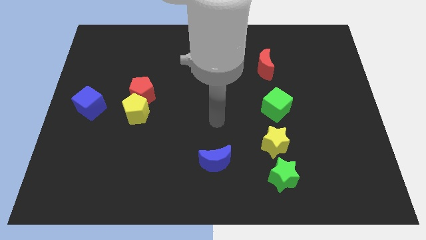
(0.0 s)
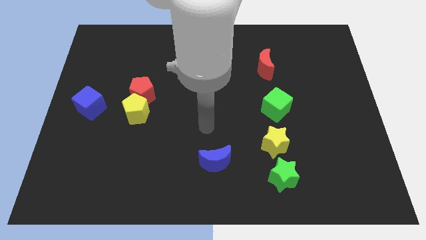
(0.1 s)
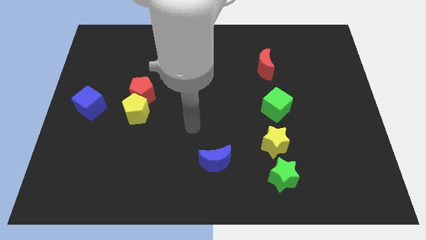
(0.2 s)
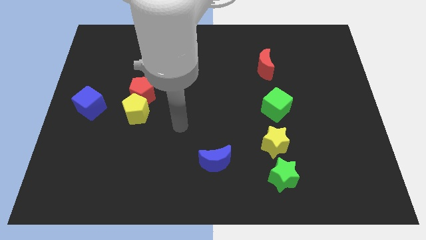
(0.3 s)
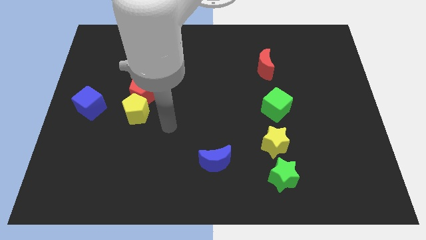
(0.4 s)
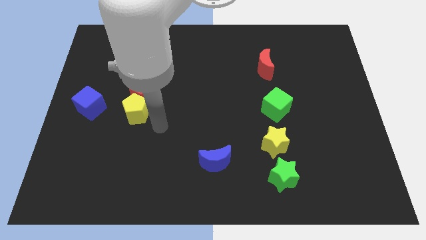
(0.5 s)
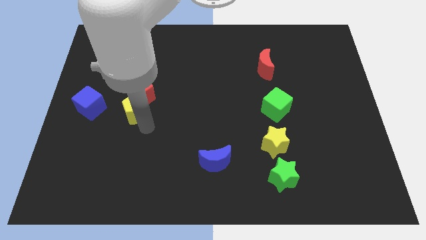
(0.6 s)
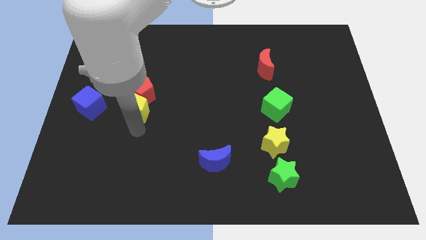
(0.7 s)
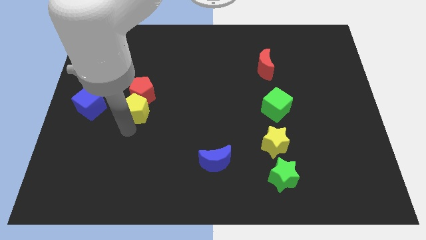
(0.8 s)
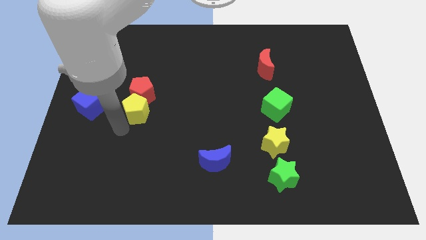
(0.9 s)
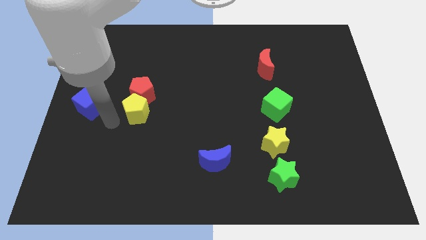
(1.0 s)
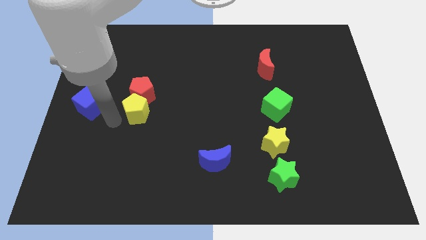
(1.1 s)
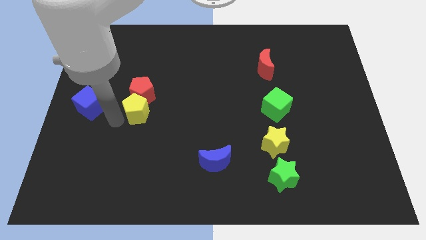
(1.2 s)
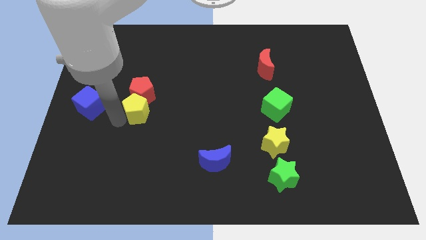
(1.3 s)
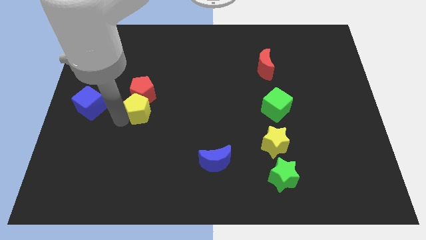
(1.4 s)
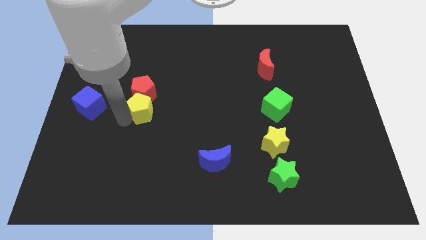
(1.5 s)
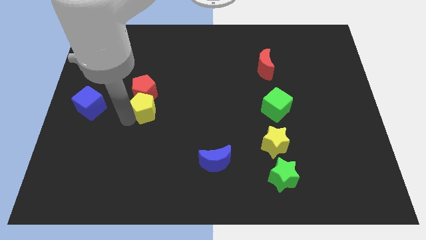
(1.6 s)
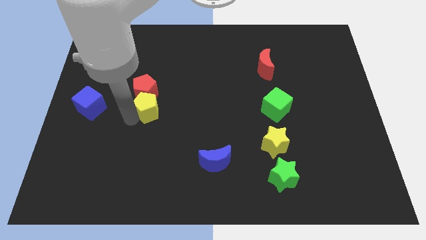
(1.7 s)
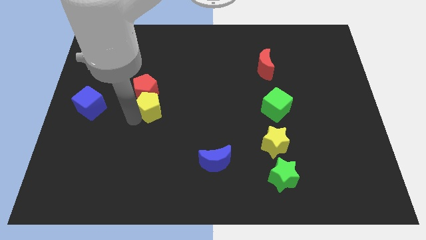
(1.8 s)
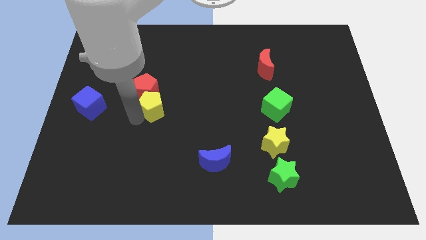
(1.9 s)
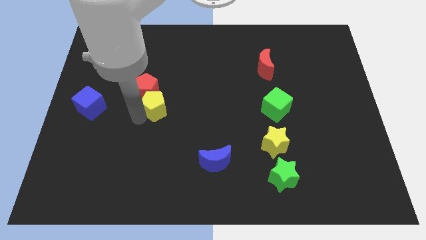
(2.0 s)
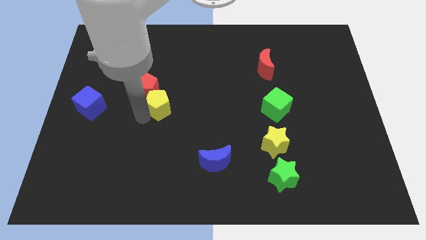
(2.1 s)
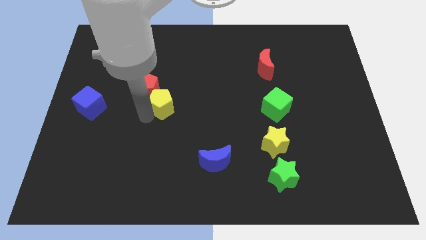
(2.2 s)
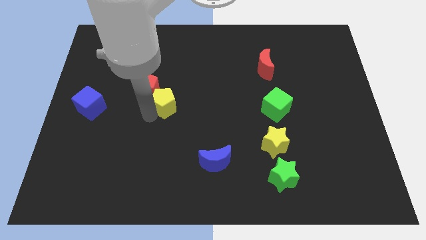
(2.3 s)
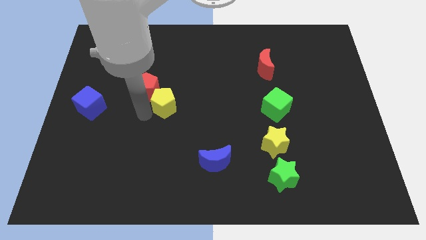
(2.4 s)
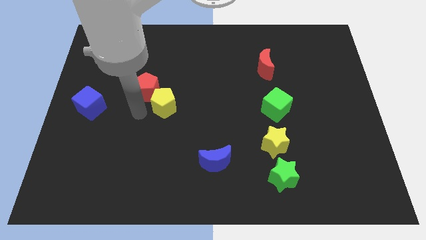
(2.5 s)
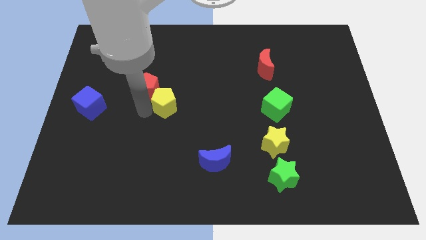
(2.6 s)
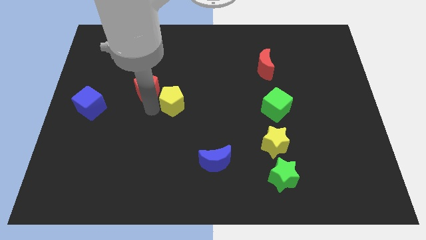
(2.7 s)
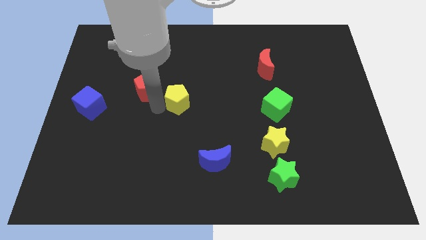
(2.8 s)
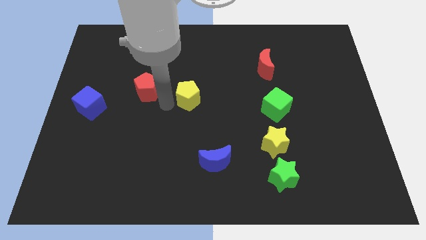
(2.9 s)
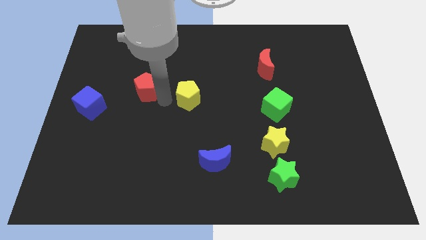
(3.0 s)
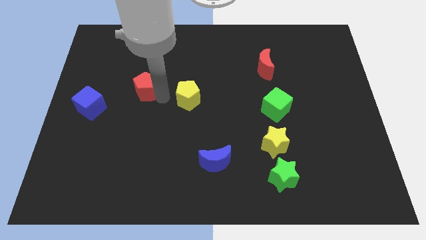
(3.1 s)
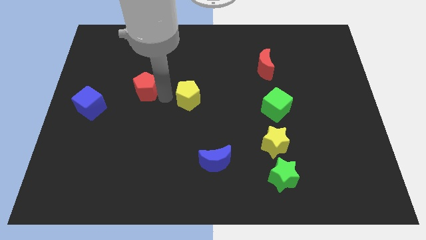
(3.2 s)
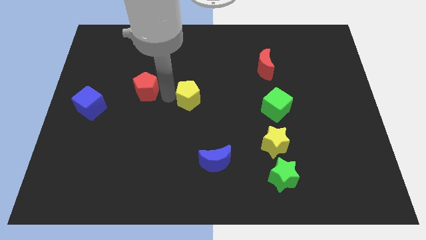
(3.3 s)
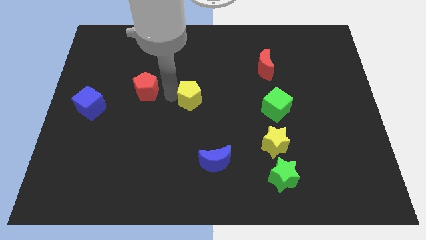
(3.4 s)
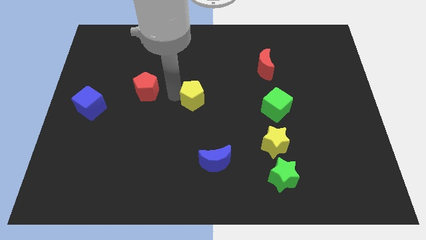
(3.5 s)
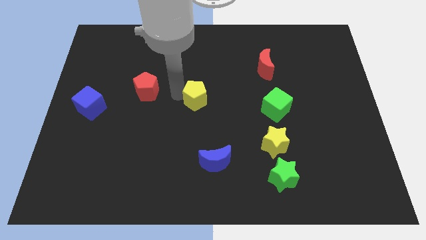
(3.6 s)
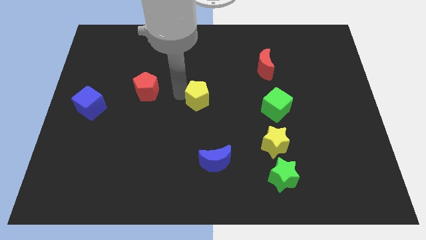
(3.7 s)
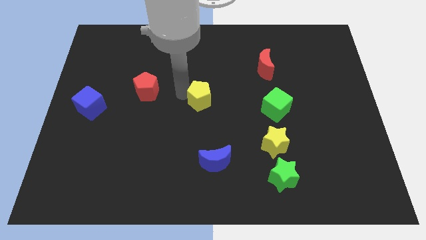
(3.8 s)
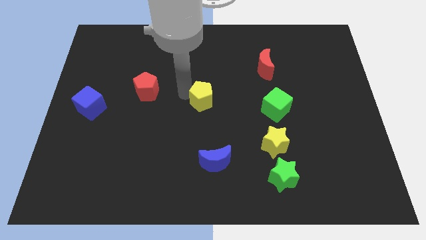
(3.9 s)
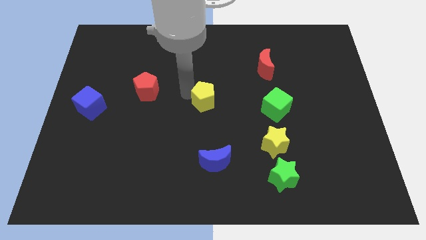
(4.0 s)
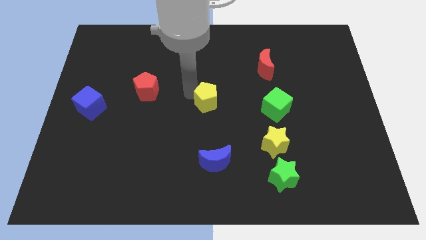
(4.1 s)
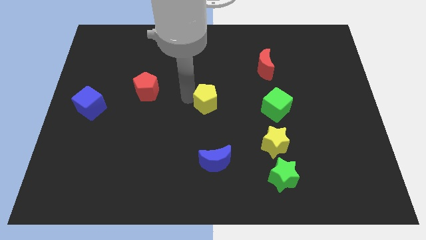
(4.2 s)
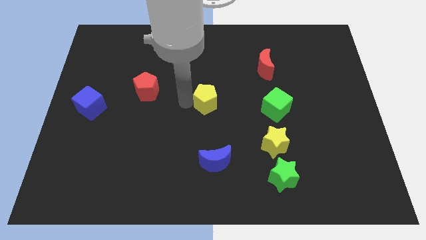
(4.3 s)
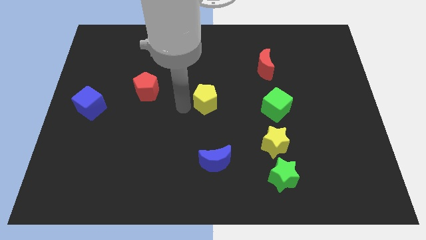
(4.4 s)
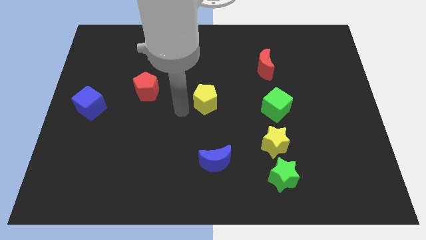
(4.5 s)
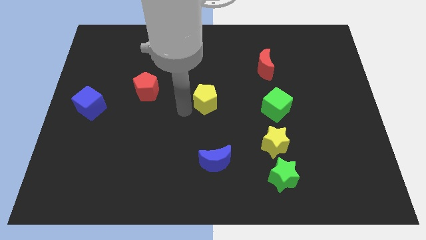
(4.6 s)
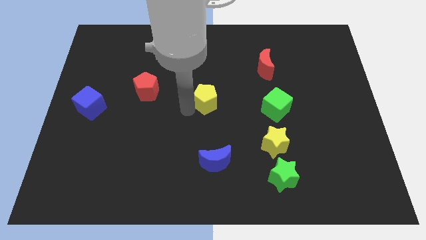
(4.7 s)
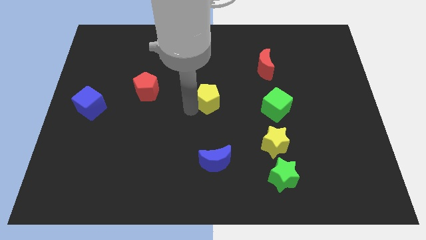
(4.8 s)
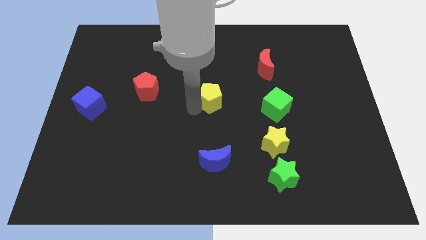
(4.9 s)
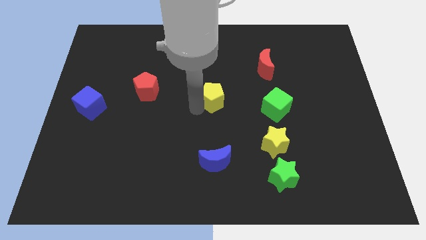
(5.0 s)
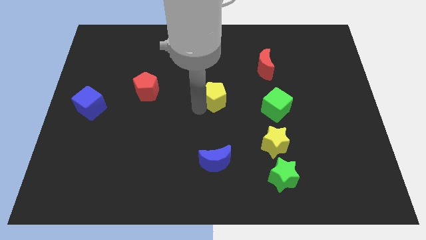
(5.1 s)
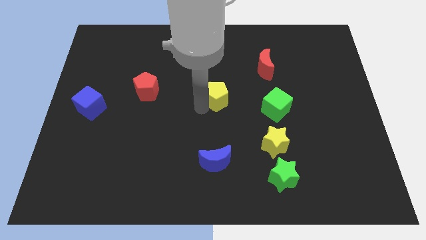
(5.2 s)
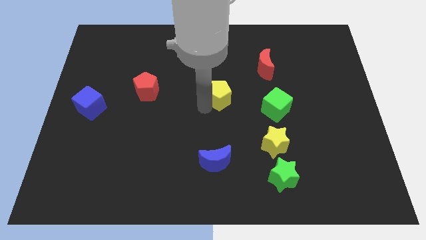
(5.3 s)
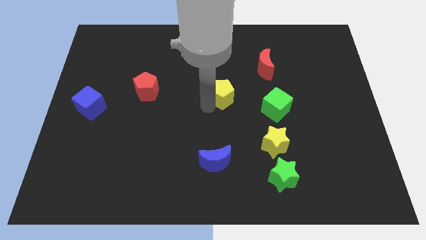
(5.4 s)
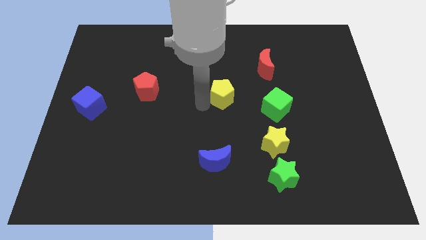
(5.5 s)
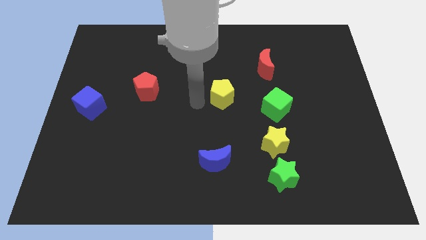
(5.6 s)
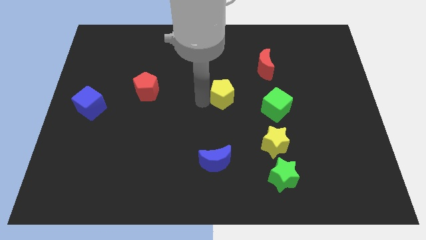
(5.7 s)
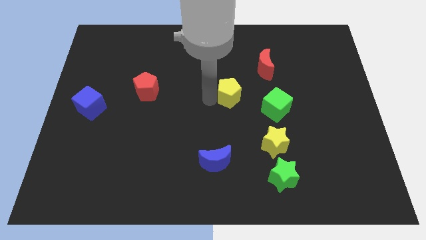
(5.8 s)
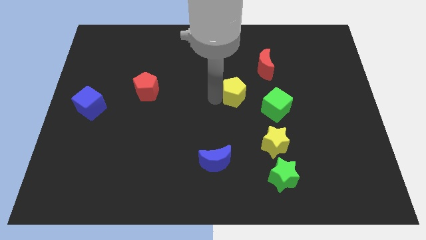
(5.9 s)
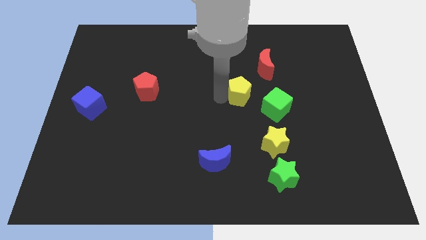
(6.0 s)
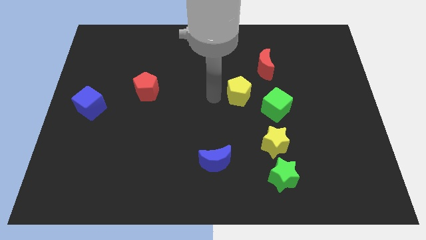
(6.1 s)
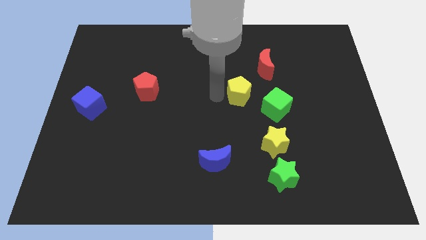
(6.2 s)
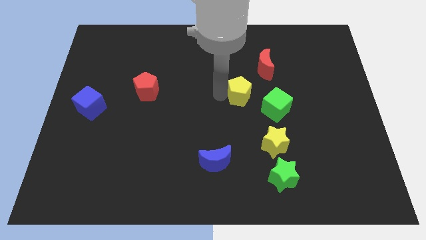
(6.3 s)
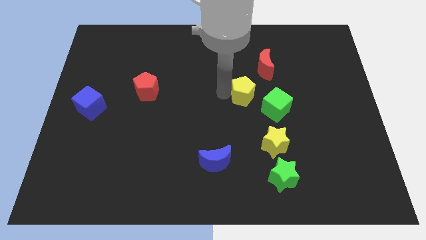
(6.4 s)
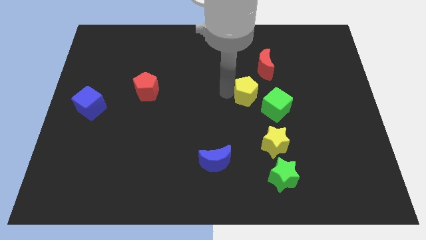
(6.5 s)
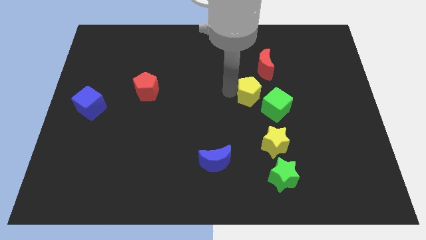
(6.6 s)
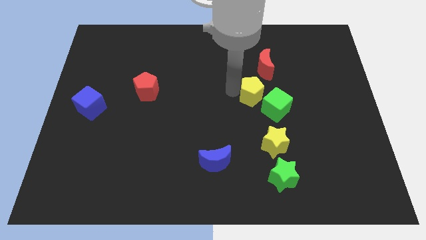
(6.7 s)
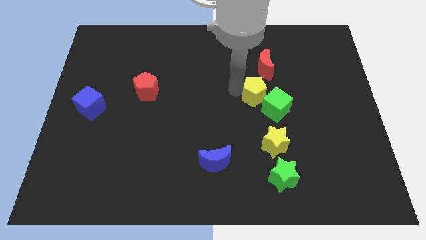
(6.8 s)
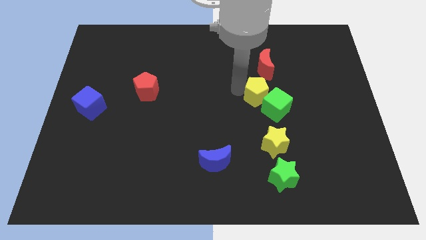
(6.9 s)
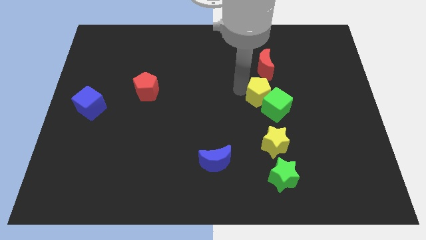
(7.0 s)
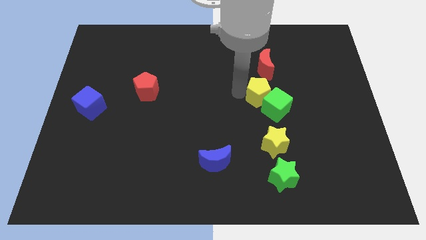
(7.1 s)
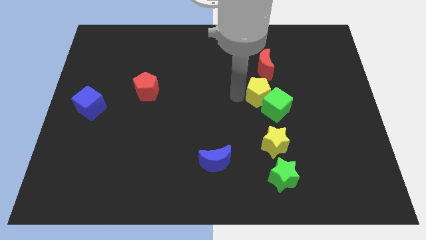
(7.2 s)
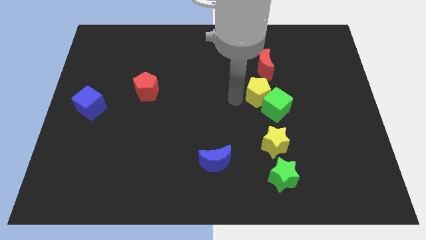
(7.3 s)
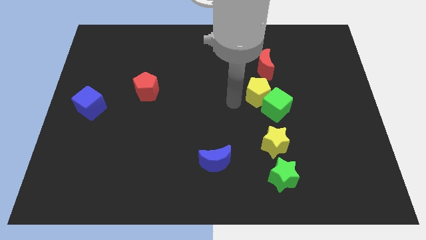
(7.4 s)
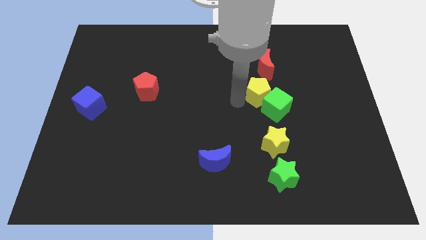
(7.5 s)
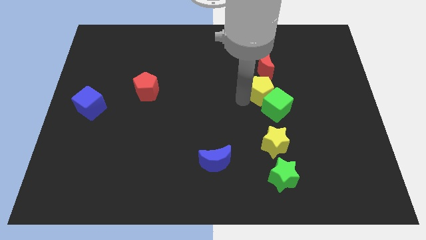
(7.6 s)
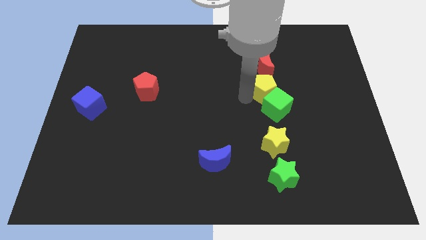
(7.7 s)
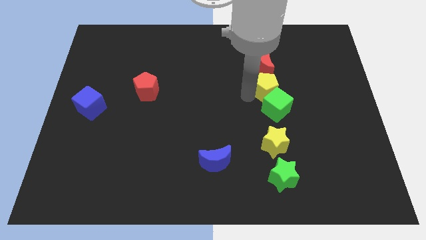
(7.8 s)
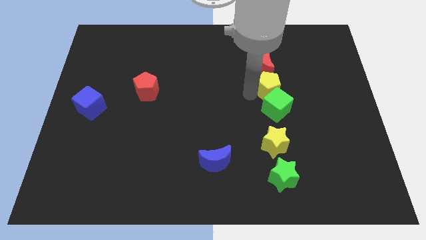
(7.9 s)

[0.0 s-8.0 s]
move the yellow pentagon diagonally up and to the right of the green cube
